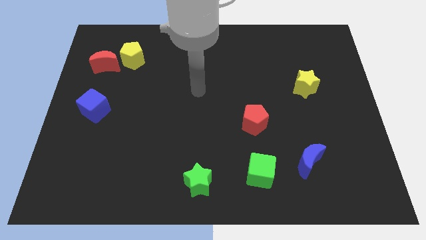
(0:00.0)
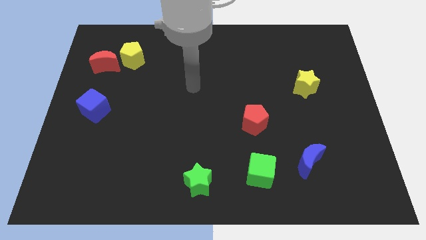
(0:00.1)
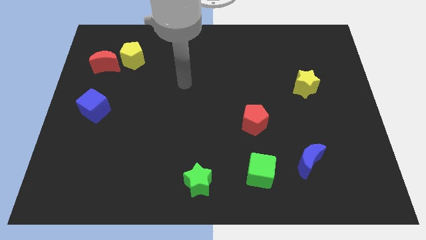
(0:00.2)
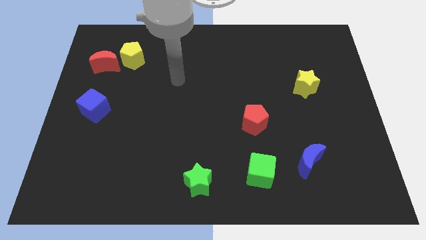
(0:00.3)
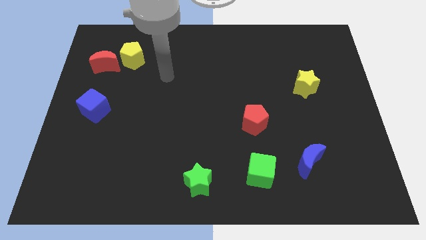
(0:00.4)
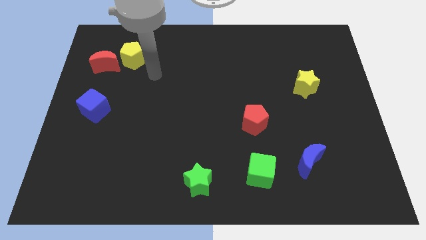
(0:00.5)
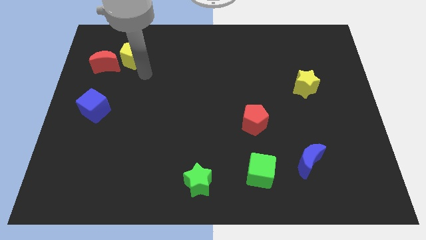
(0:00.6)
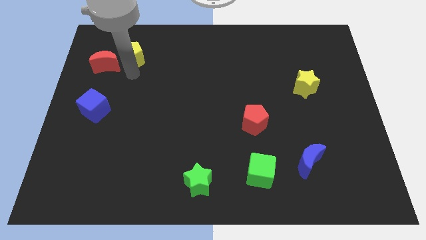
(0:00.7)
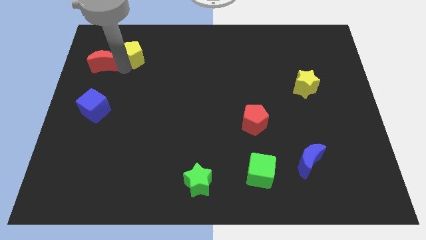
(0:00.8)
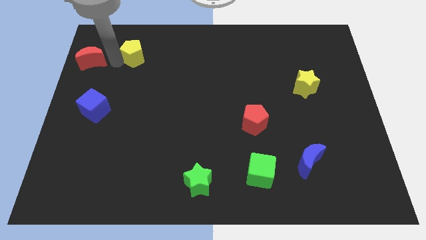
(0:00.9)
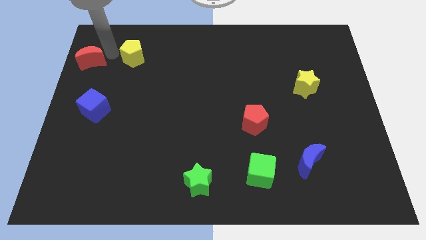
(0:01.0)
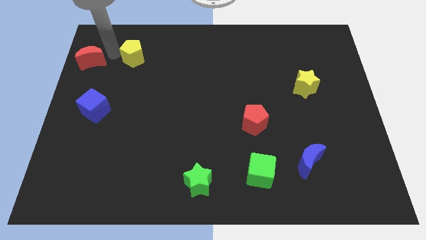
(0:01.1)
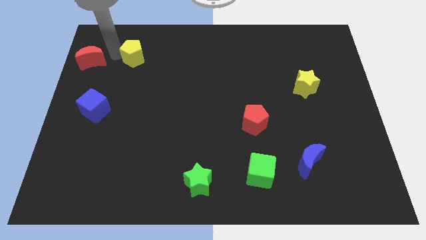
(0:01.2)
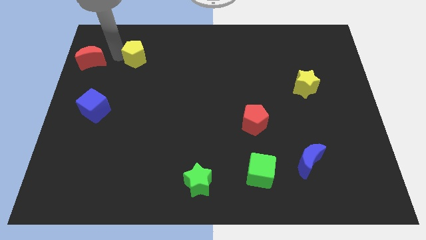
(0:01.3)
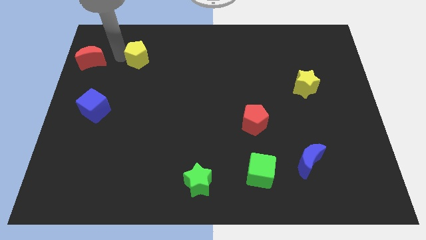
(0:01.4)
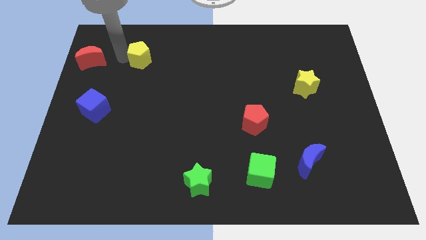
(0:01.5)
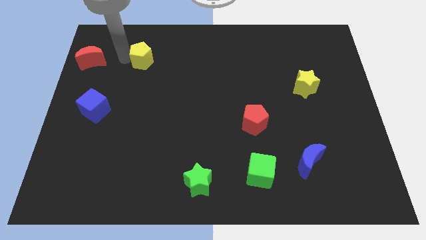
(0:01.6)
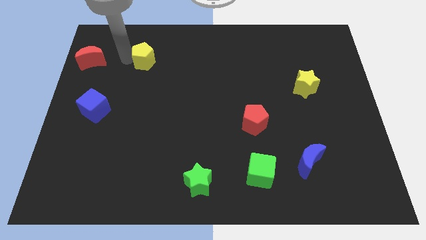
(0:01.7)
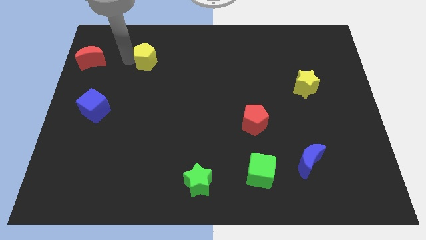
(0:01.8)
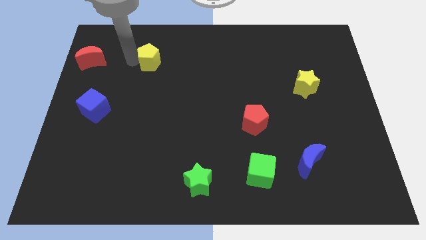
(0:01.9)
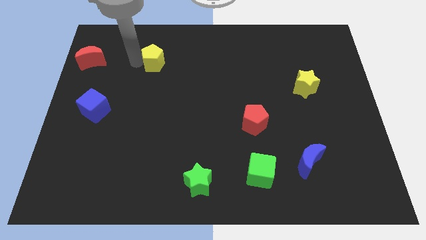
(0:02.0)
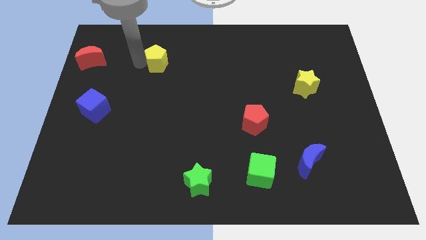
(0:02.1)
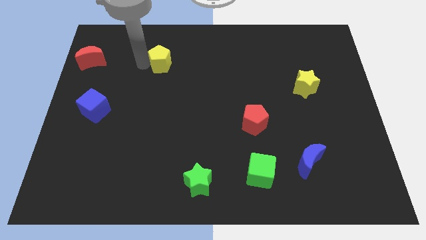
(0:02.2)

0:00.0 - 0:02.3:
move the yellow pentagon a bit to the right

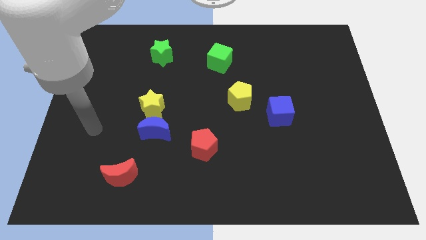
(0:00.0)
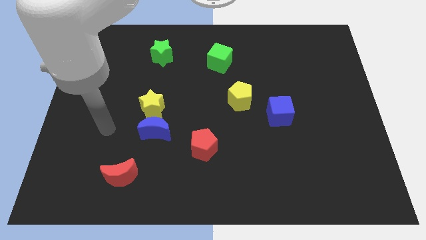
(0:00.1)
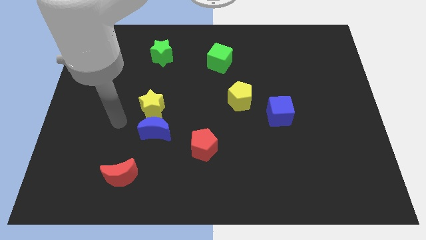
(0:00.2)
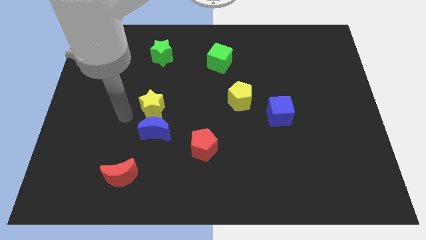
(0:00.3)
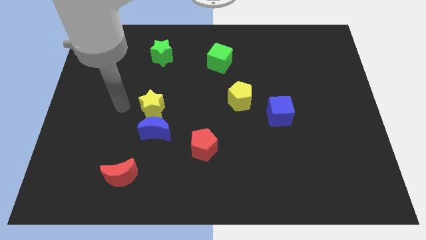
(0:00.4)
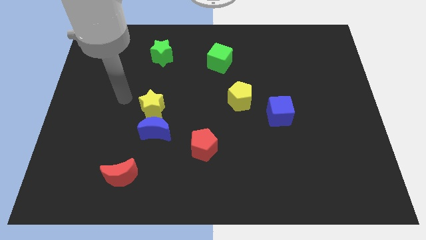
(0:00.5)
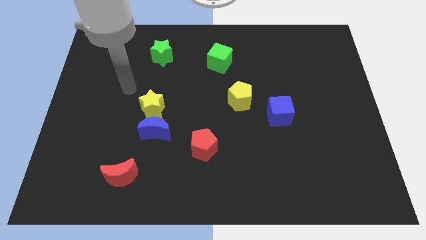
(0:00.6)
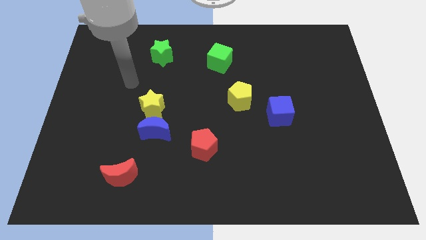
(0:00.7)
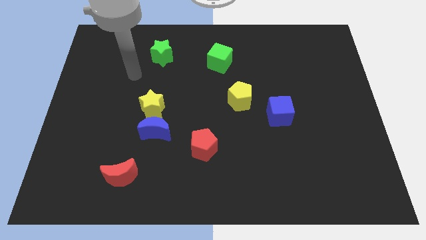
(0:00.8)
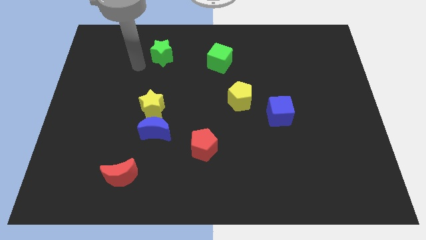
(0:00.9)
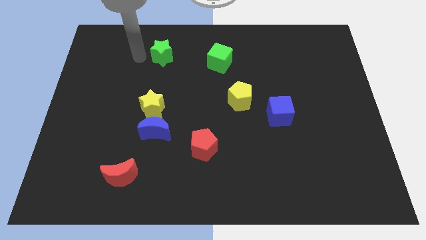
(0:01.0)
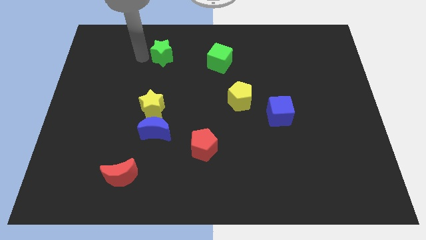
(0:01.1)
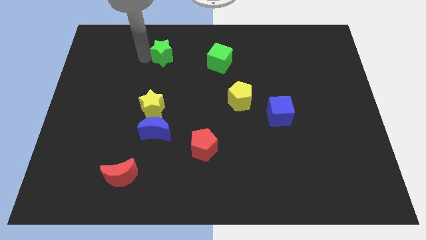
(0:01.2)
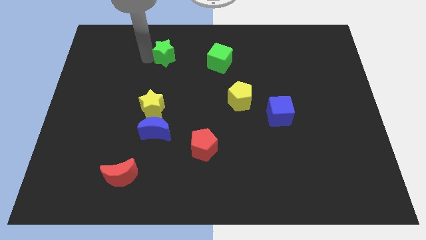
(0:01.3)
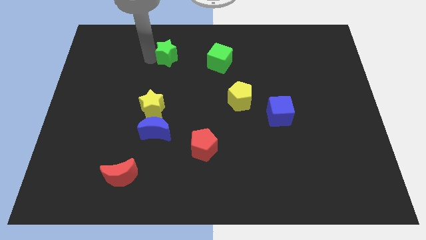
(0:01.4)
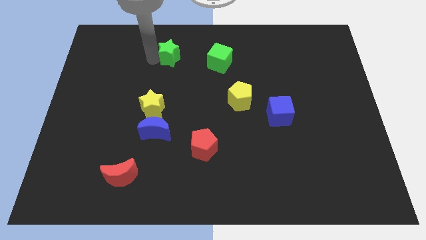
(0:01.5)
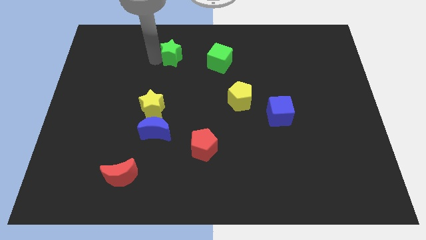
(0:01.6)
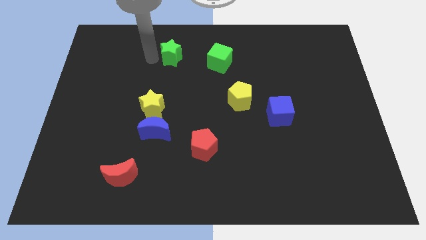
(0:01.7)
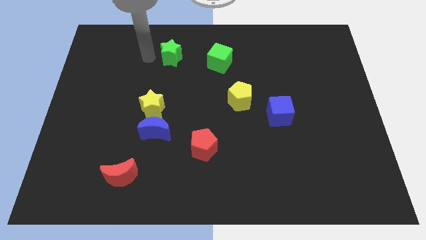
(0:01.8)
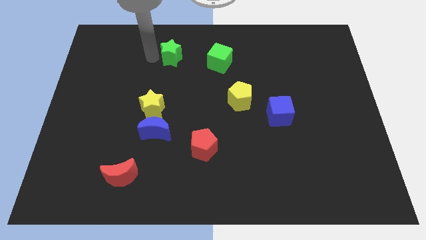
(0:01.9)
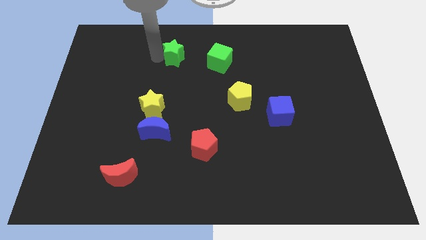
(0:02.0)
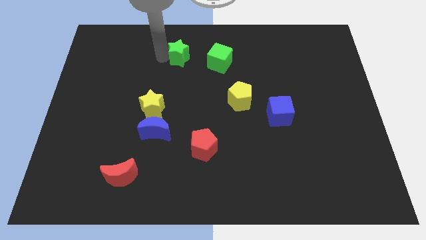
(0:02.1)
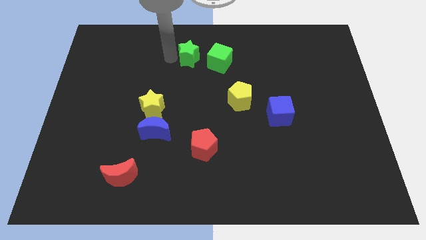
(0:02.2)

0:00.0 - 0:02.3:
slightly push the green star right

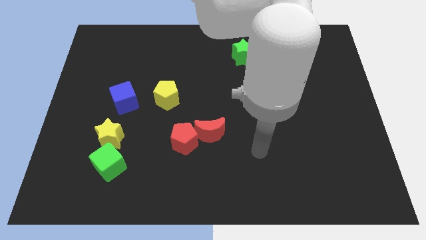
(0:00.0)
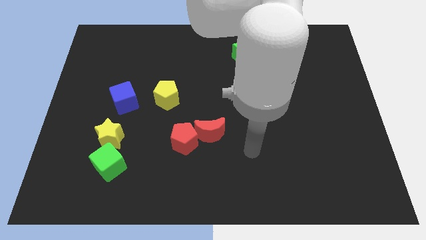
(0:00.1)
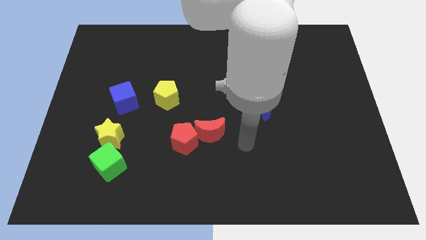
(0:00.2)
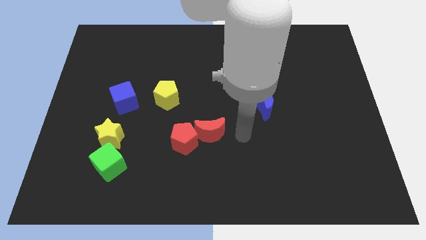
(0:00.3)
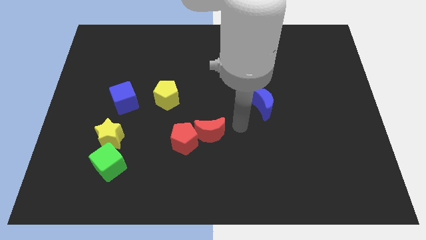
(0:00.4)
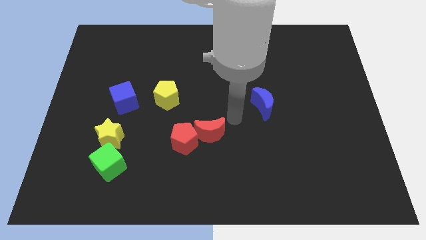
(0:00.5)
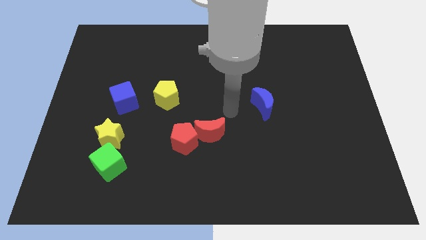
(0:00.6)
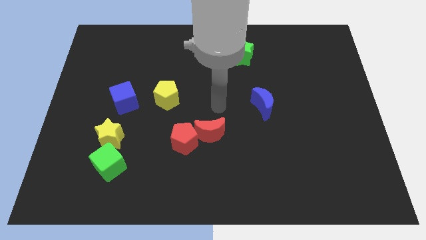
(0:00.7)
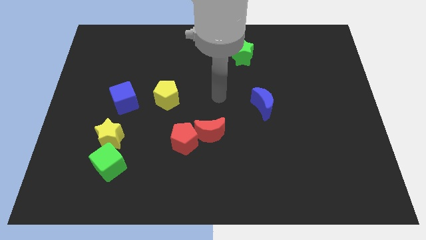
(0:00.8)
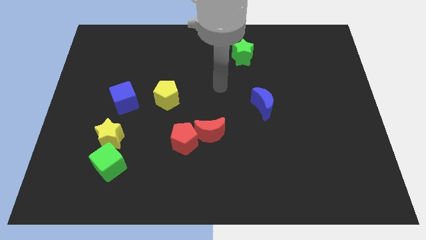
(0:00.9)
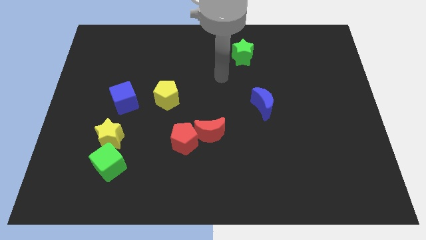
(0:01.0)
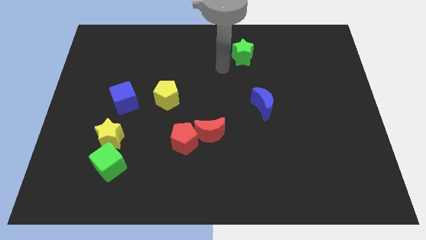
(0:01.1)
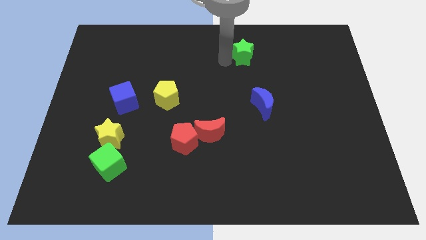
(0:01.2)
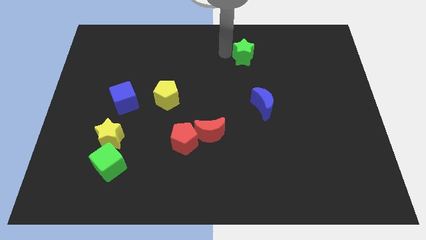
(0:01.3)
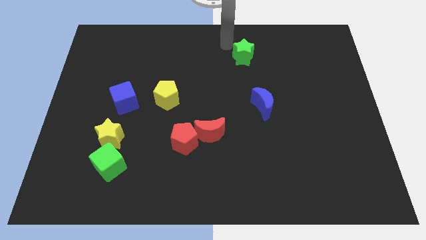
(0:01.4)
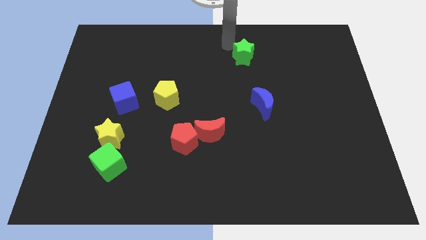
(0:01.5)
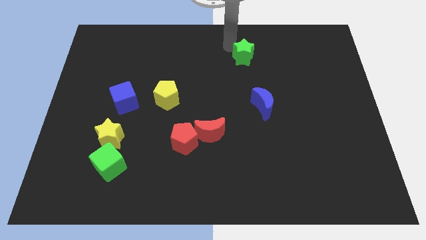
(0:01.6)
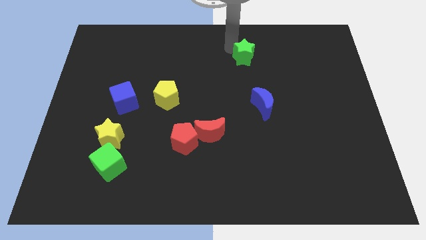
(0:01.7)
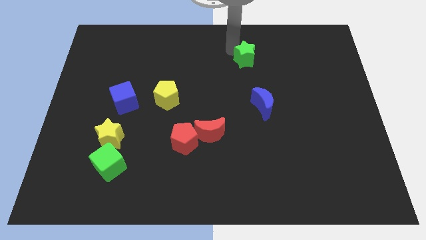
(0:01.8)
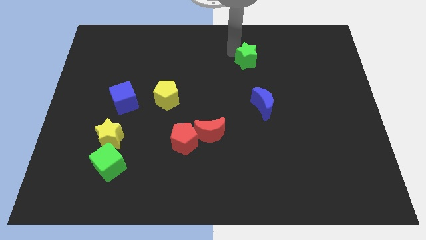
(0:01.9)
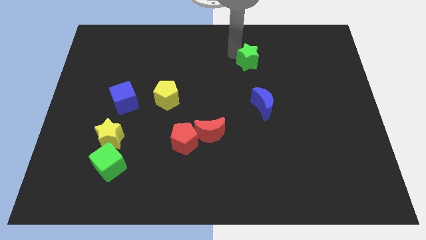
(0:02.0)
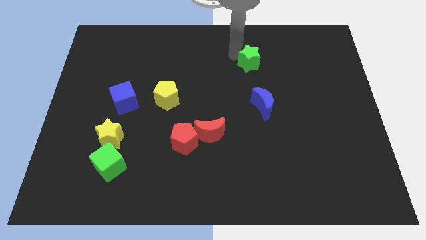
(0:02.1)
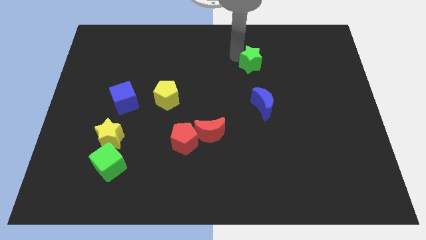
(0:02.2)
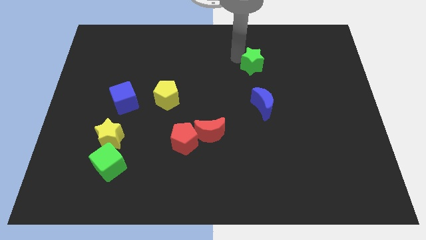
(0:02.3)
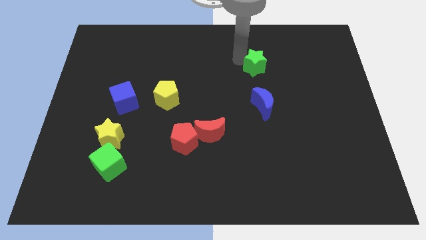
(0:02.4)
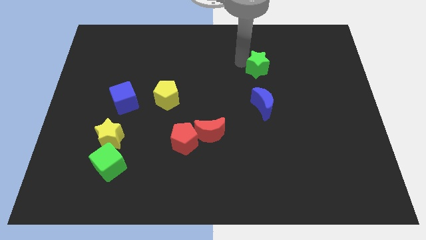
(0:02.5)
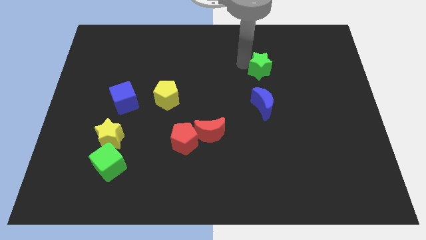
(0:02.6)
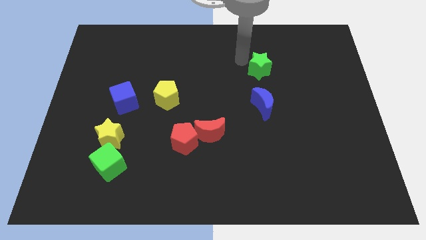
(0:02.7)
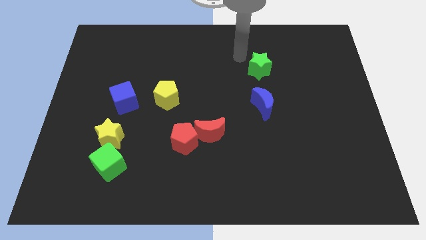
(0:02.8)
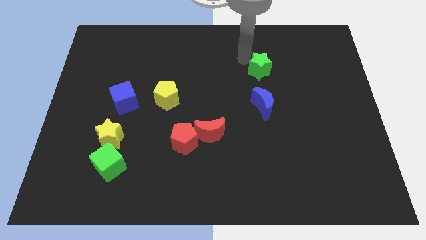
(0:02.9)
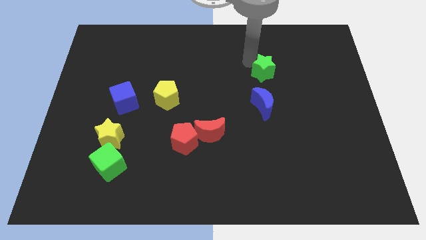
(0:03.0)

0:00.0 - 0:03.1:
move the green star diagonally downwards and to the right slightly

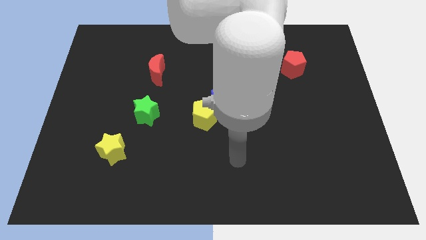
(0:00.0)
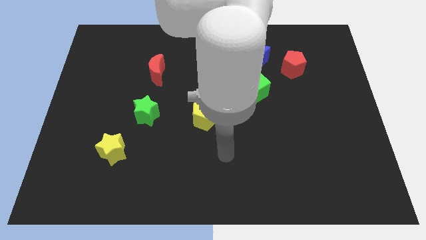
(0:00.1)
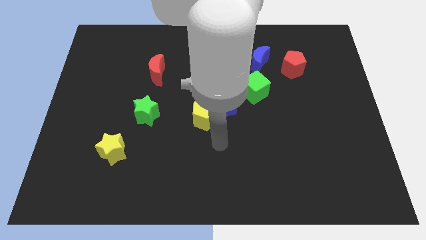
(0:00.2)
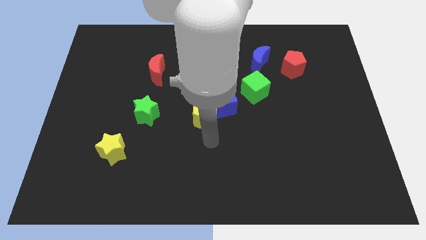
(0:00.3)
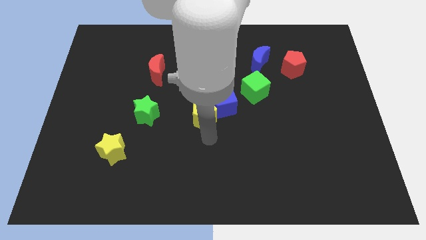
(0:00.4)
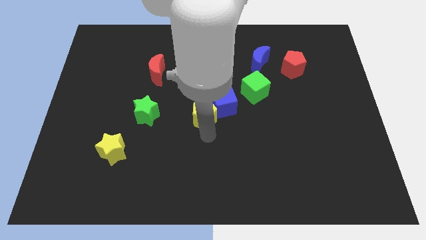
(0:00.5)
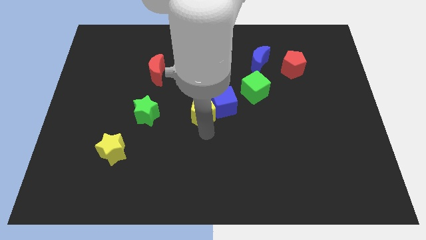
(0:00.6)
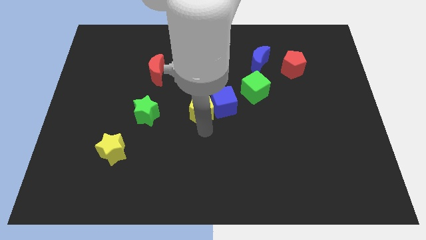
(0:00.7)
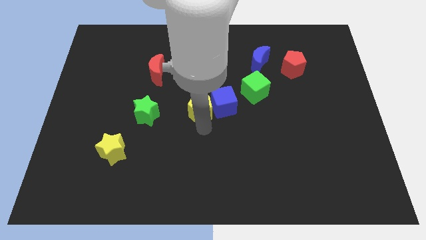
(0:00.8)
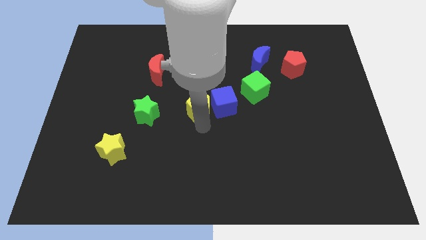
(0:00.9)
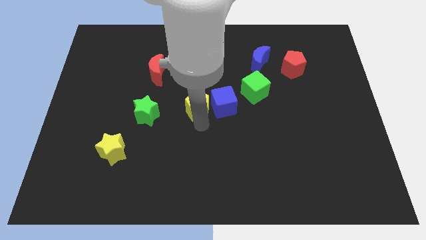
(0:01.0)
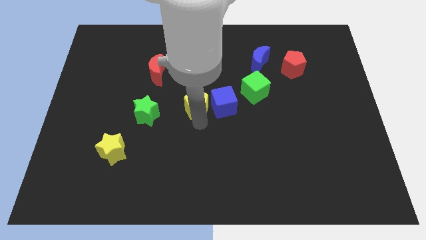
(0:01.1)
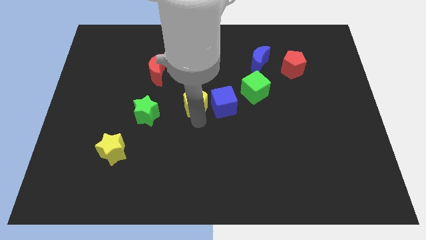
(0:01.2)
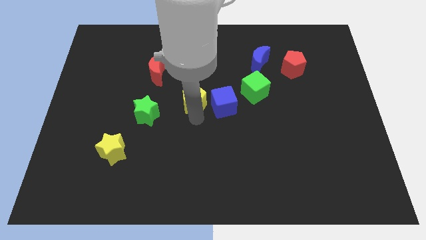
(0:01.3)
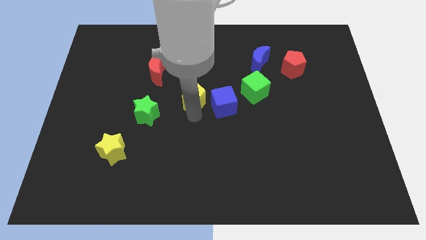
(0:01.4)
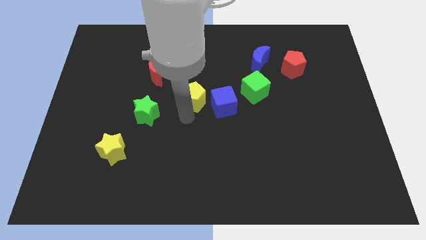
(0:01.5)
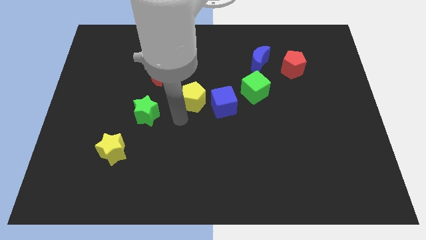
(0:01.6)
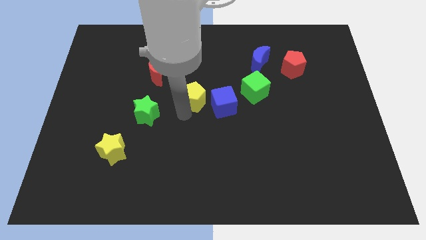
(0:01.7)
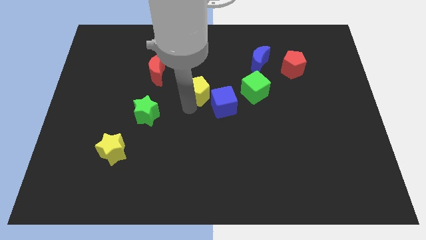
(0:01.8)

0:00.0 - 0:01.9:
push the yellow pentagon a little up
